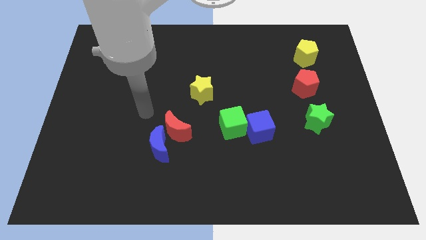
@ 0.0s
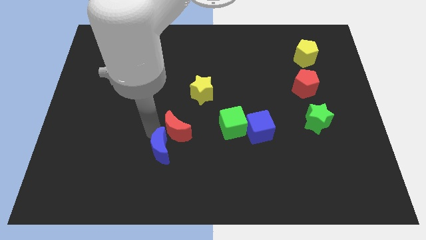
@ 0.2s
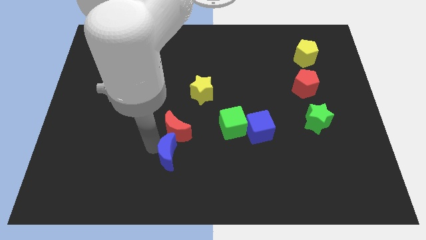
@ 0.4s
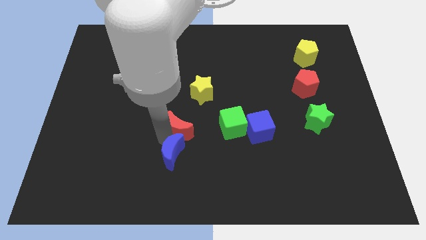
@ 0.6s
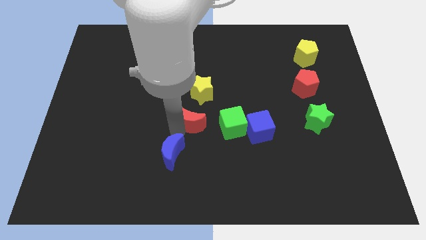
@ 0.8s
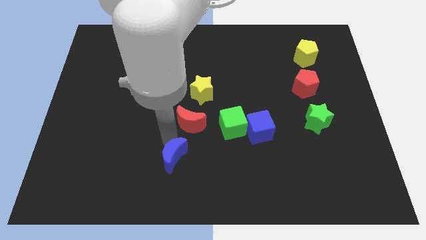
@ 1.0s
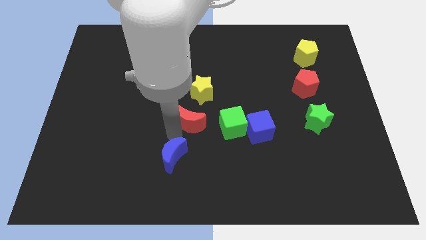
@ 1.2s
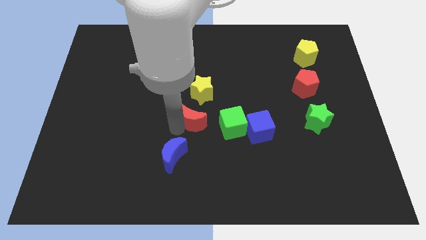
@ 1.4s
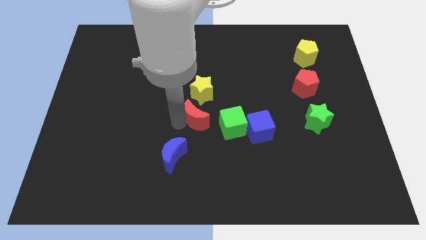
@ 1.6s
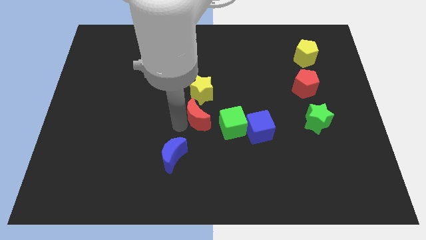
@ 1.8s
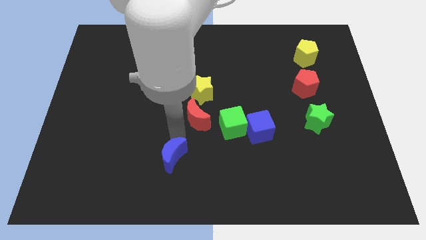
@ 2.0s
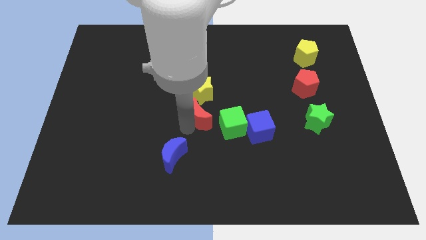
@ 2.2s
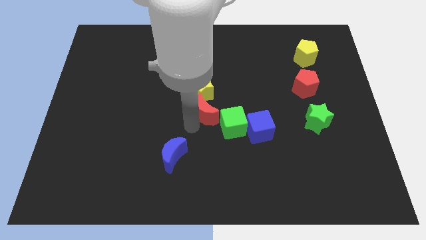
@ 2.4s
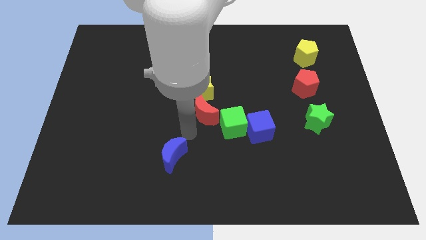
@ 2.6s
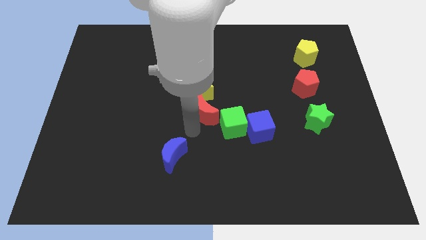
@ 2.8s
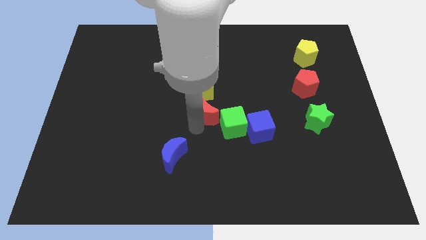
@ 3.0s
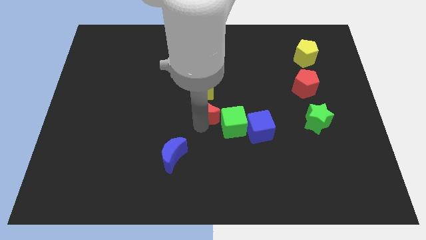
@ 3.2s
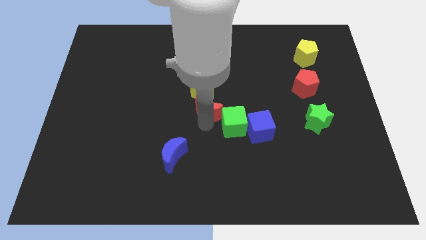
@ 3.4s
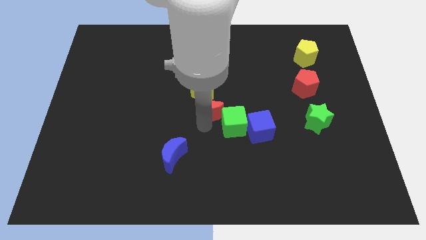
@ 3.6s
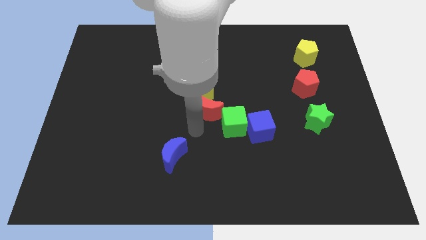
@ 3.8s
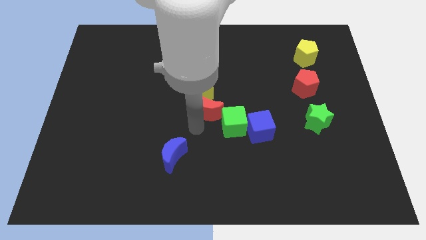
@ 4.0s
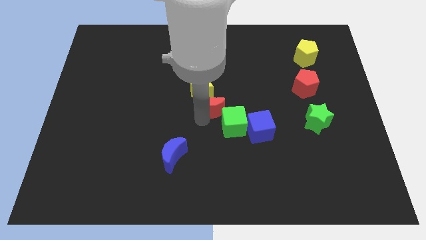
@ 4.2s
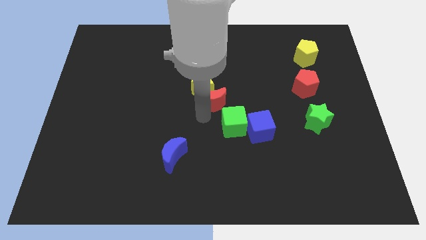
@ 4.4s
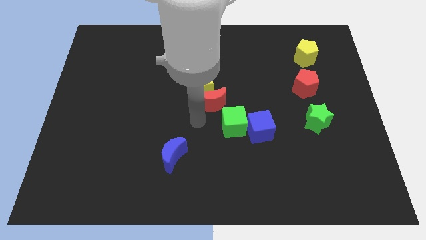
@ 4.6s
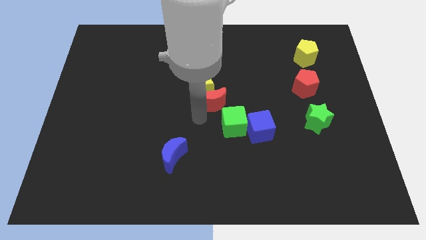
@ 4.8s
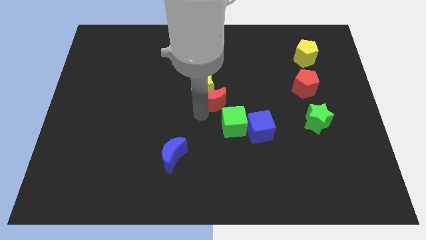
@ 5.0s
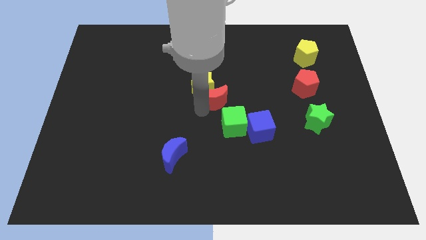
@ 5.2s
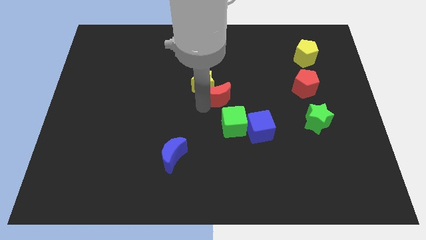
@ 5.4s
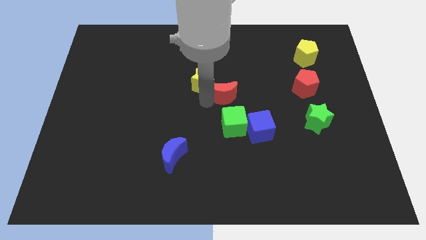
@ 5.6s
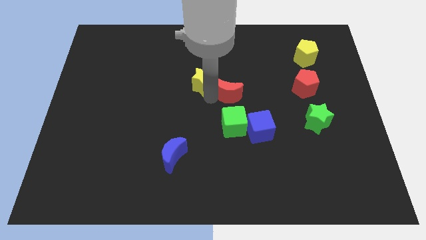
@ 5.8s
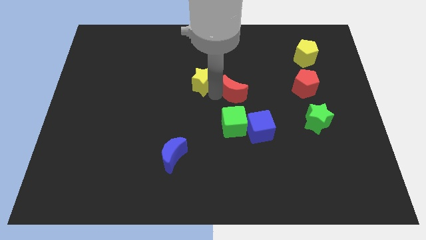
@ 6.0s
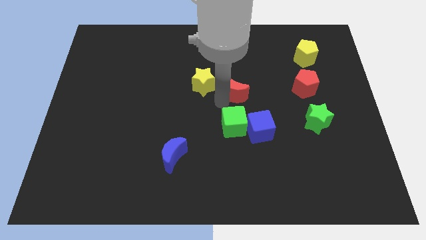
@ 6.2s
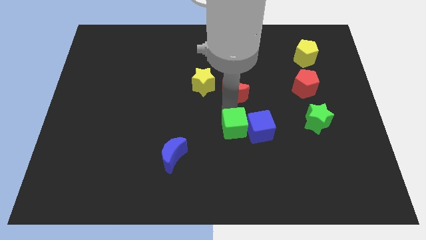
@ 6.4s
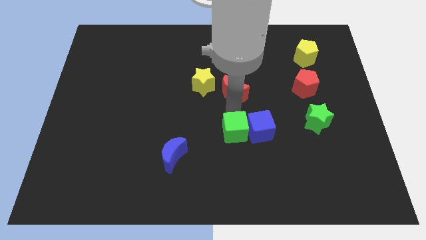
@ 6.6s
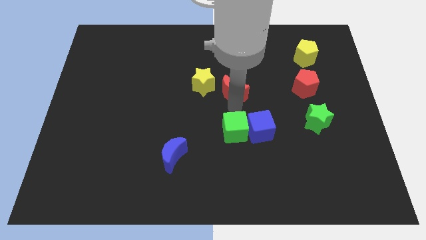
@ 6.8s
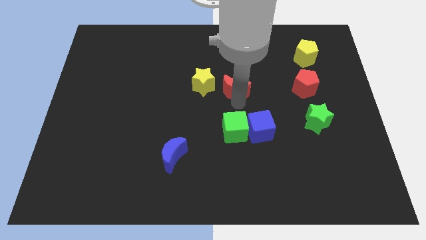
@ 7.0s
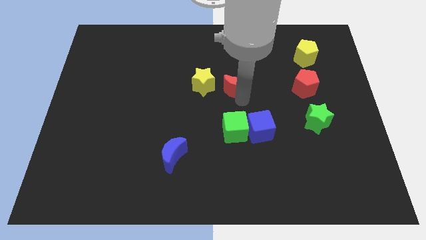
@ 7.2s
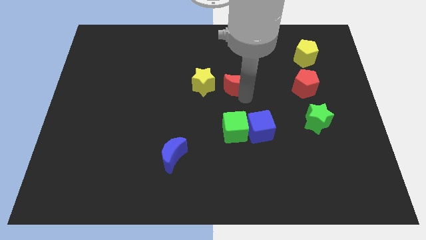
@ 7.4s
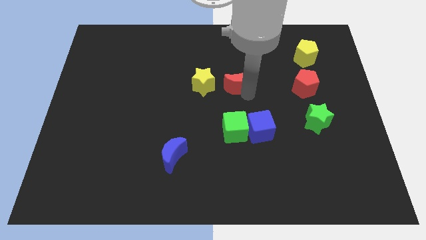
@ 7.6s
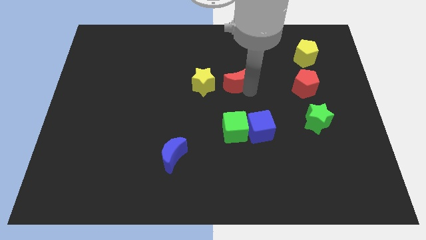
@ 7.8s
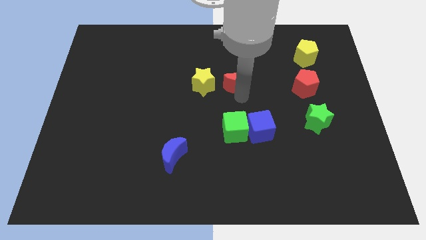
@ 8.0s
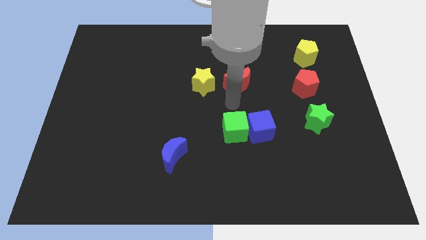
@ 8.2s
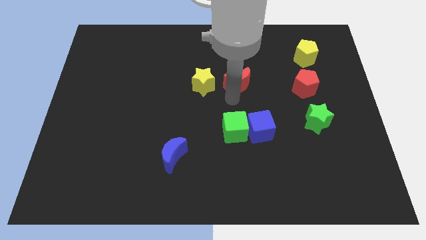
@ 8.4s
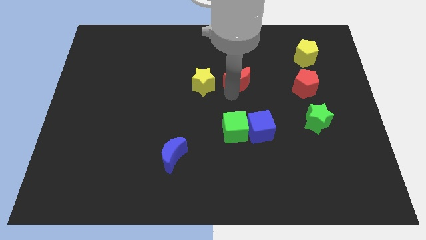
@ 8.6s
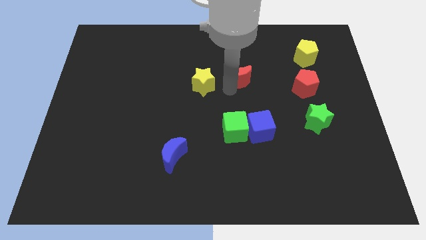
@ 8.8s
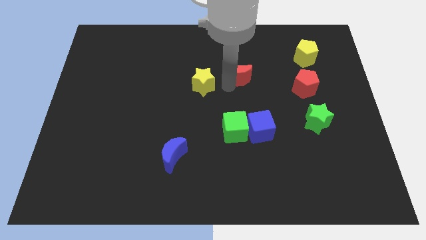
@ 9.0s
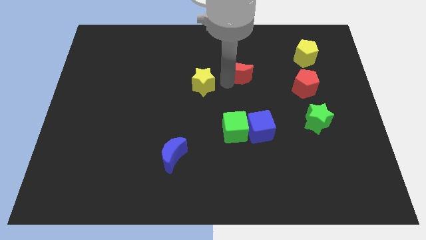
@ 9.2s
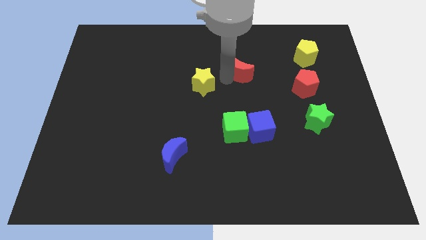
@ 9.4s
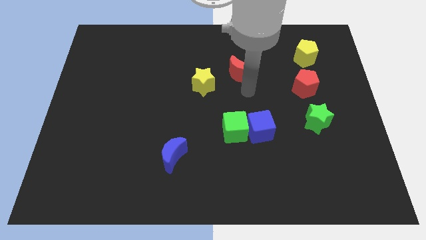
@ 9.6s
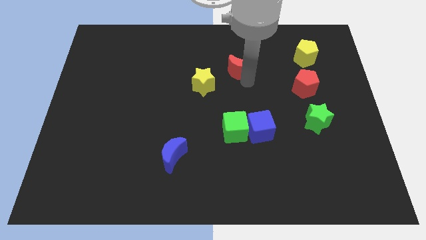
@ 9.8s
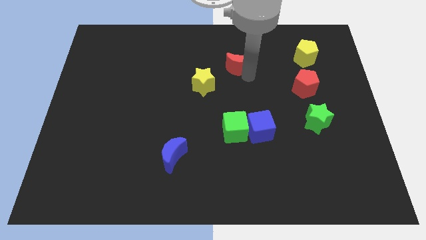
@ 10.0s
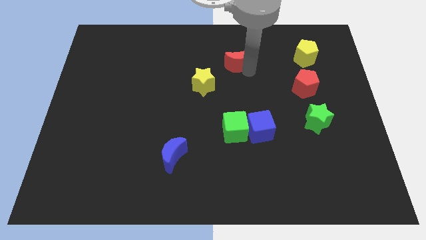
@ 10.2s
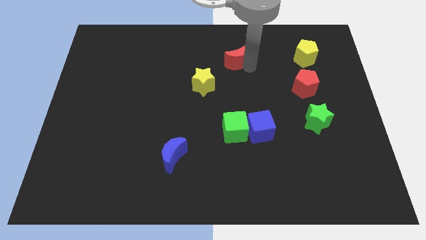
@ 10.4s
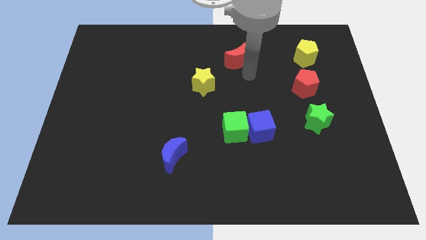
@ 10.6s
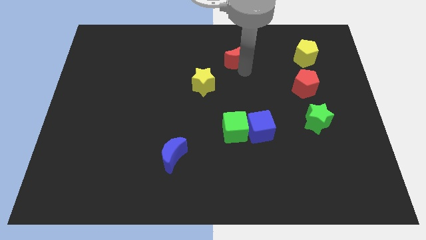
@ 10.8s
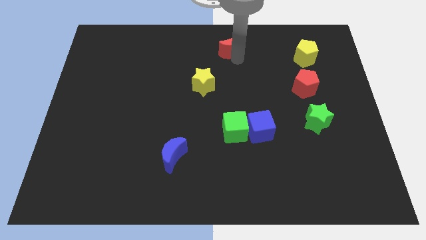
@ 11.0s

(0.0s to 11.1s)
put the red moon to the towards your base

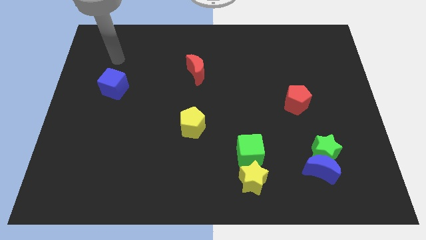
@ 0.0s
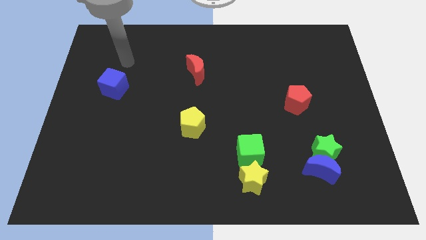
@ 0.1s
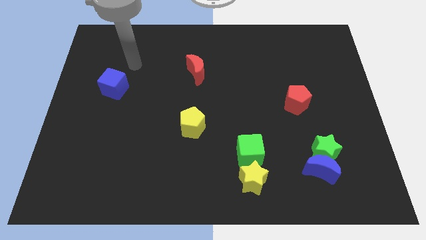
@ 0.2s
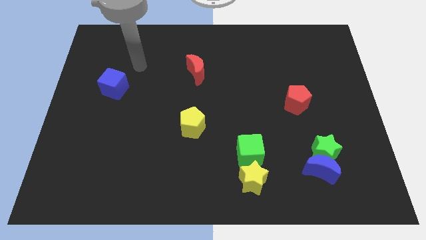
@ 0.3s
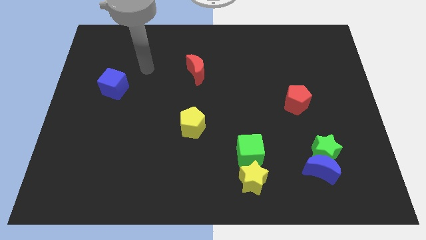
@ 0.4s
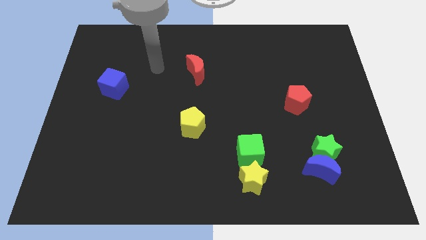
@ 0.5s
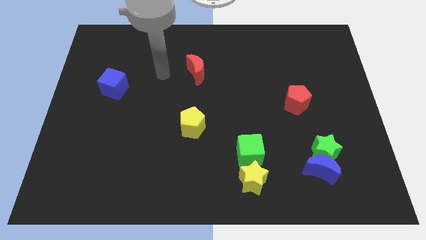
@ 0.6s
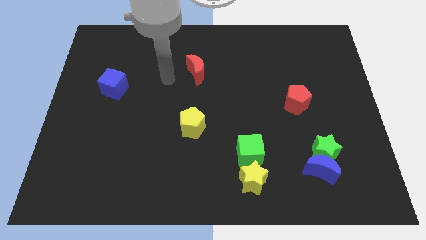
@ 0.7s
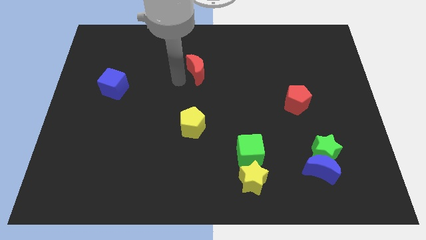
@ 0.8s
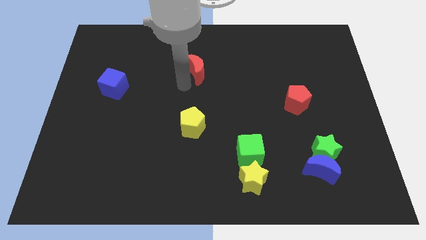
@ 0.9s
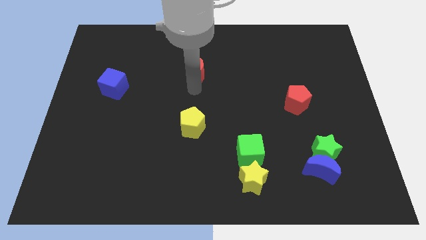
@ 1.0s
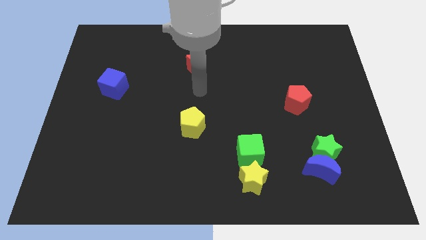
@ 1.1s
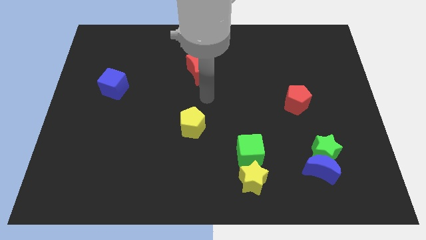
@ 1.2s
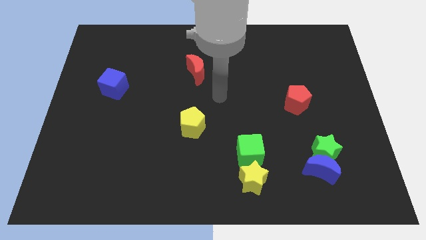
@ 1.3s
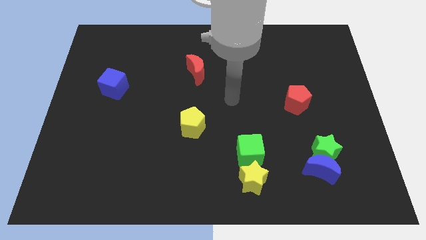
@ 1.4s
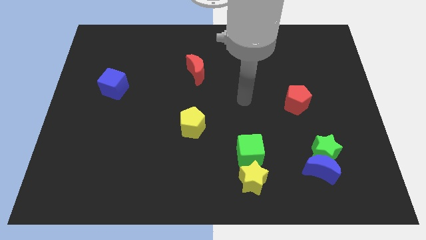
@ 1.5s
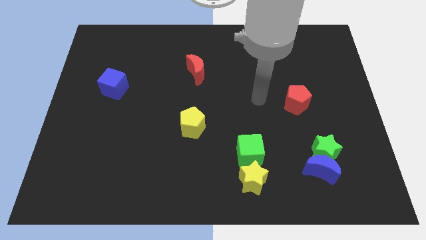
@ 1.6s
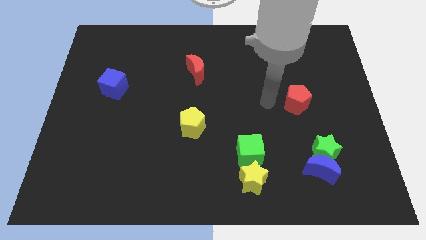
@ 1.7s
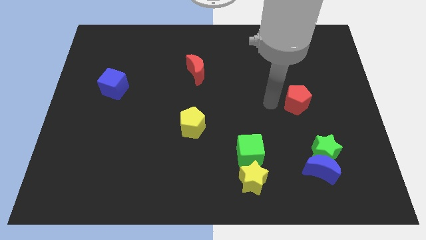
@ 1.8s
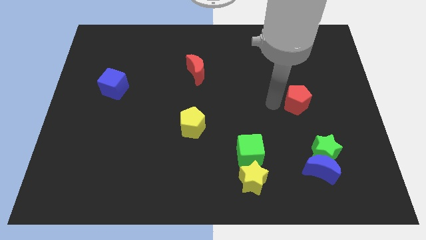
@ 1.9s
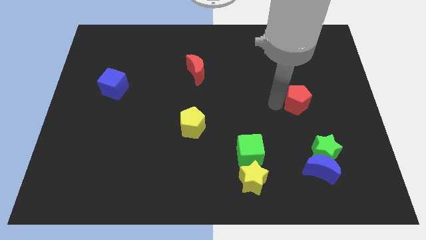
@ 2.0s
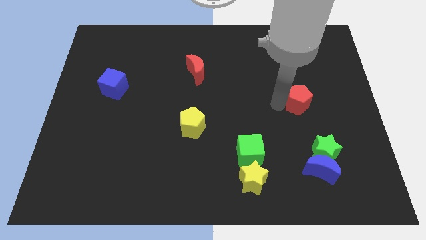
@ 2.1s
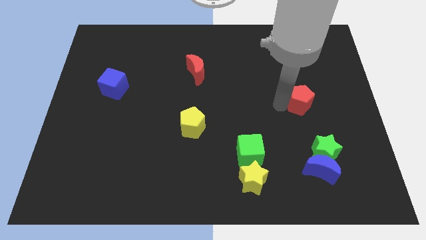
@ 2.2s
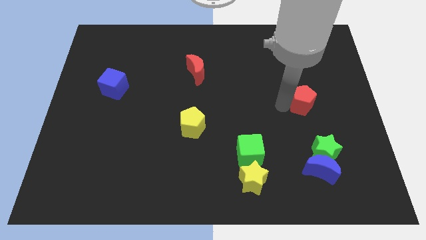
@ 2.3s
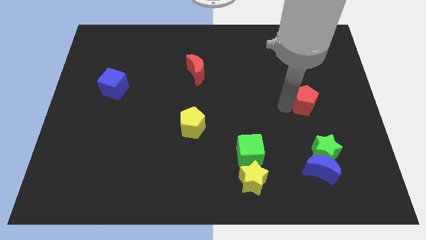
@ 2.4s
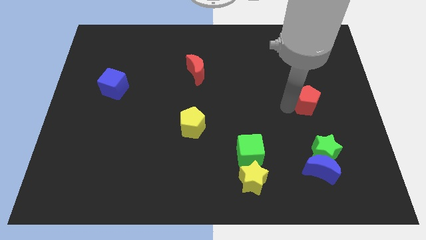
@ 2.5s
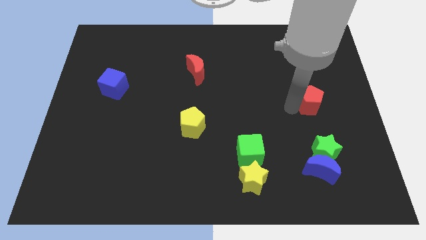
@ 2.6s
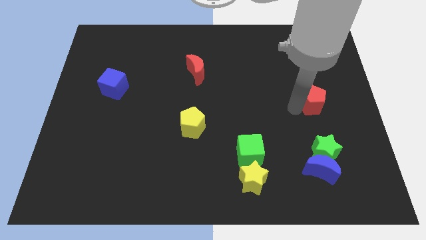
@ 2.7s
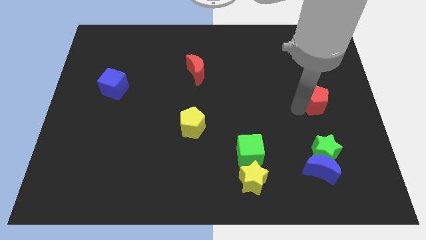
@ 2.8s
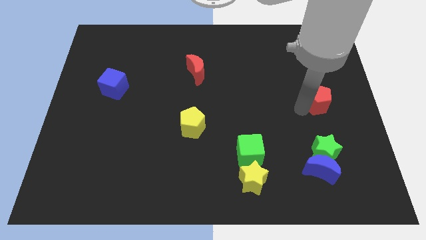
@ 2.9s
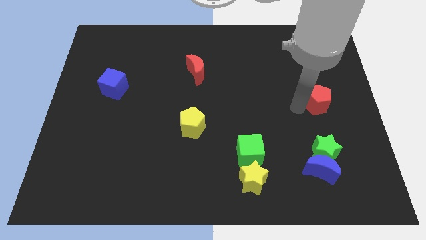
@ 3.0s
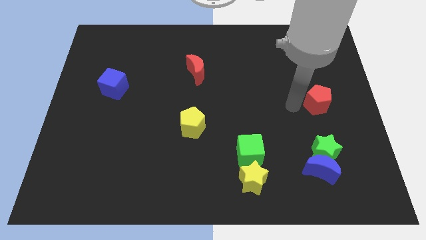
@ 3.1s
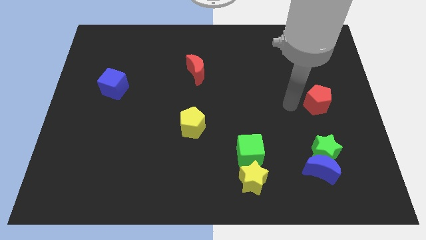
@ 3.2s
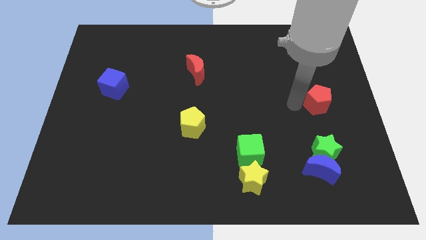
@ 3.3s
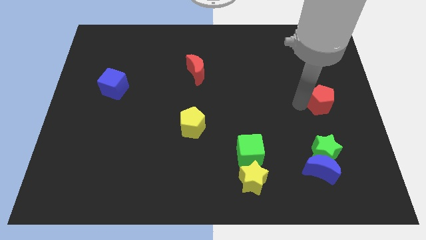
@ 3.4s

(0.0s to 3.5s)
move the red pentagon to the right side of the board
